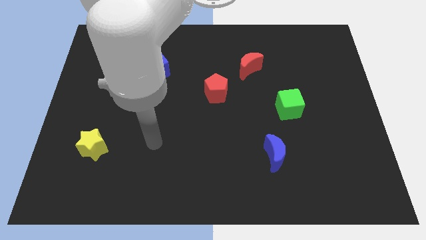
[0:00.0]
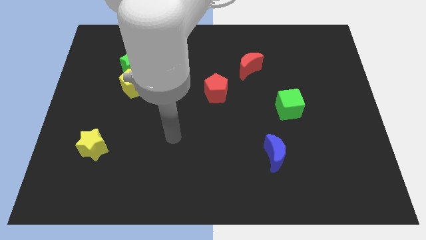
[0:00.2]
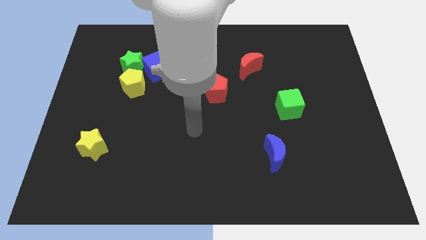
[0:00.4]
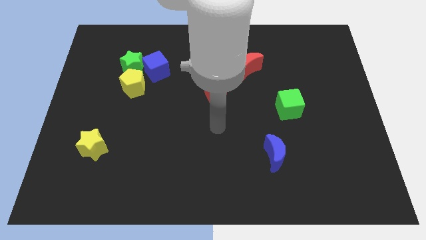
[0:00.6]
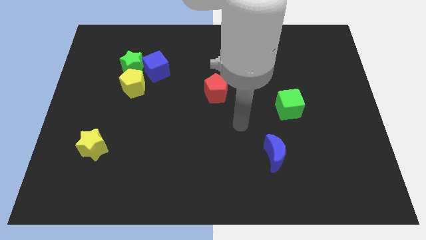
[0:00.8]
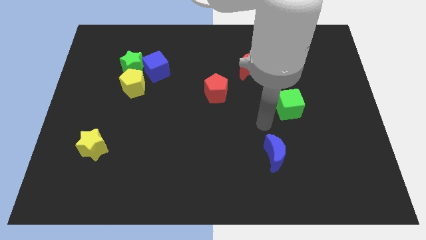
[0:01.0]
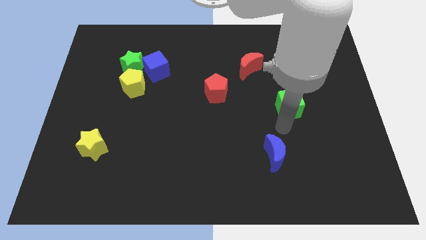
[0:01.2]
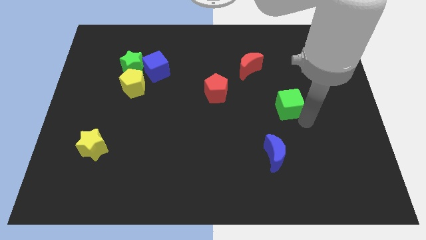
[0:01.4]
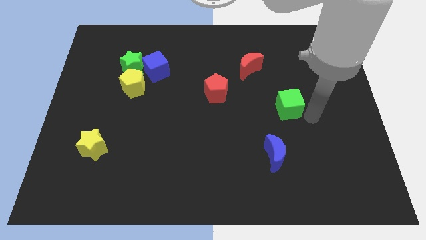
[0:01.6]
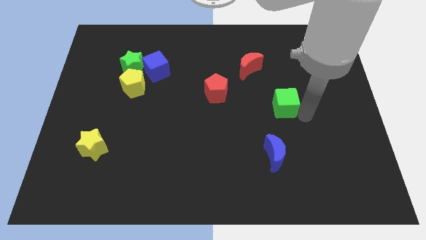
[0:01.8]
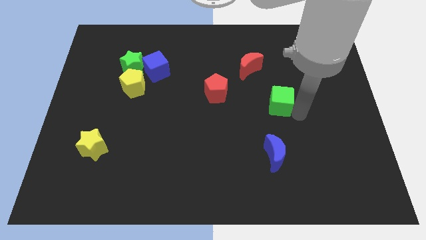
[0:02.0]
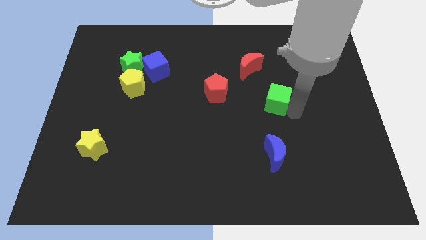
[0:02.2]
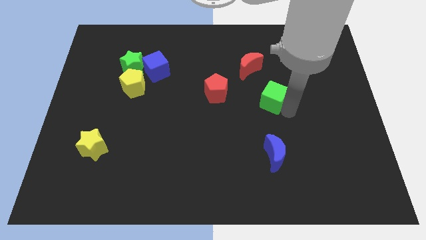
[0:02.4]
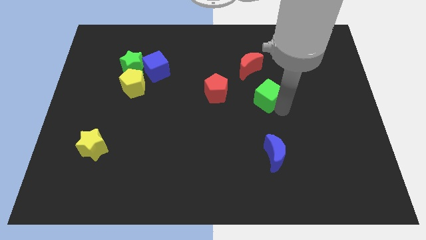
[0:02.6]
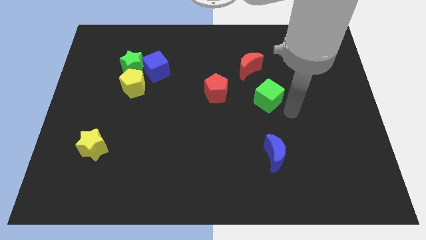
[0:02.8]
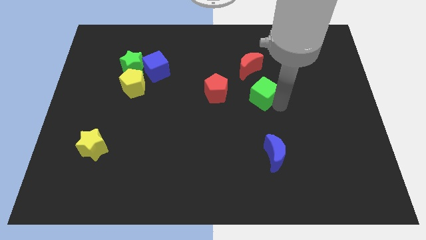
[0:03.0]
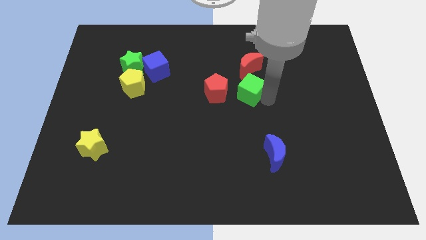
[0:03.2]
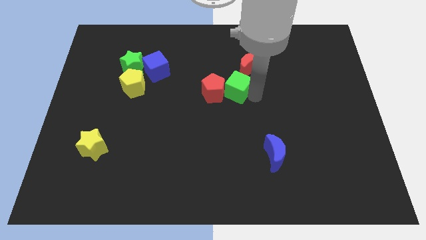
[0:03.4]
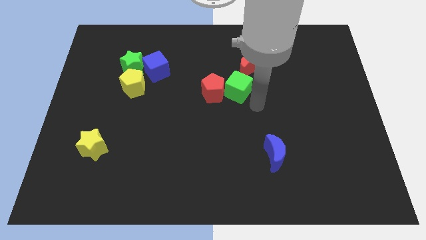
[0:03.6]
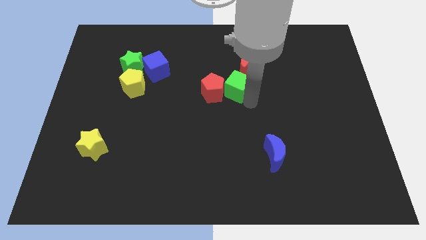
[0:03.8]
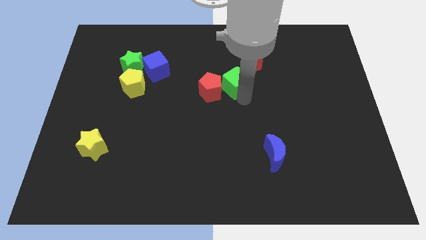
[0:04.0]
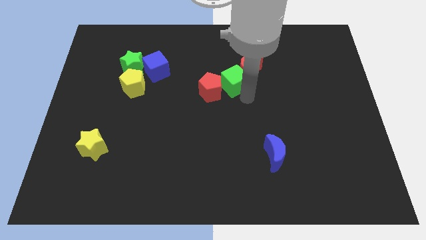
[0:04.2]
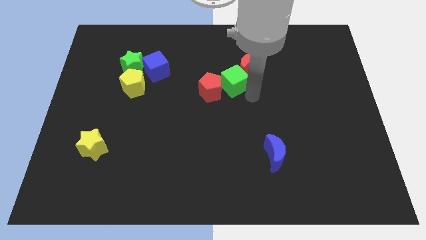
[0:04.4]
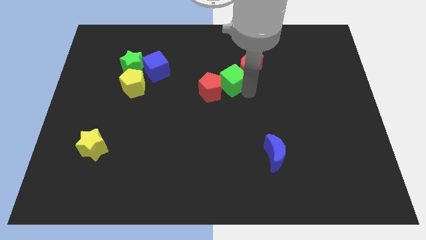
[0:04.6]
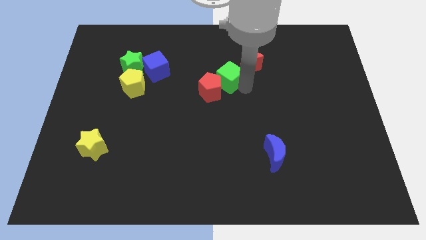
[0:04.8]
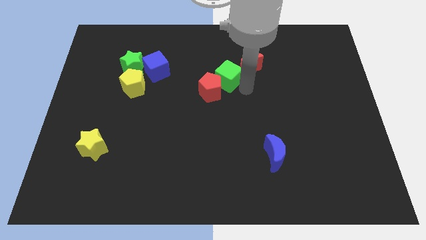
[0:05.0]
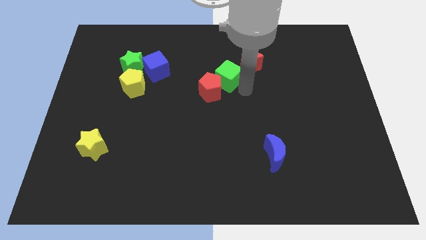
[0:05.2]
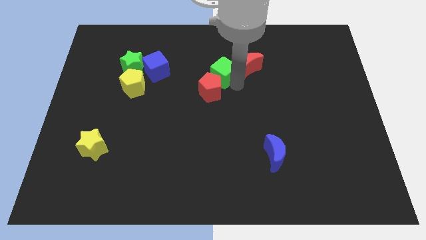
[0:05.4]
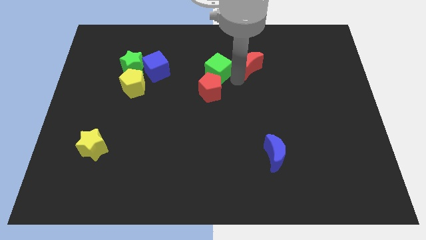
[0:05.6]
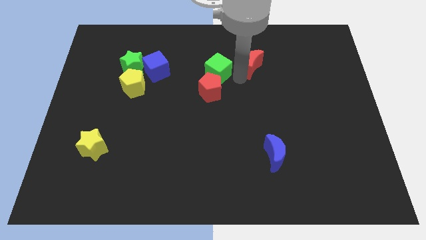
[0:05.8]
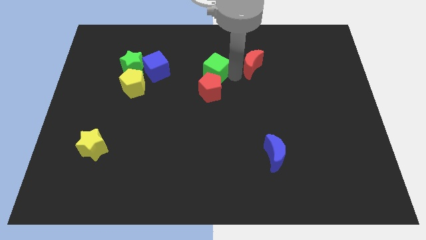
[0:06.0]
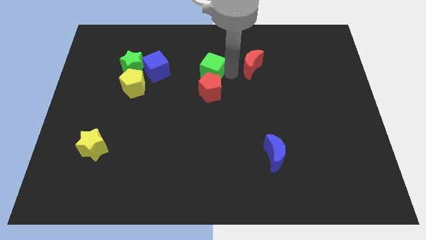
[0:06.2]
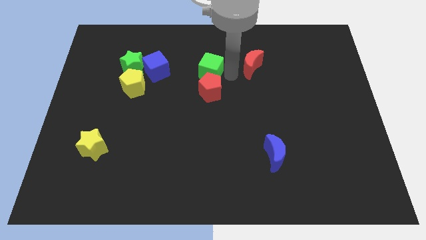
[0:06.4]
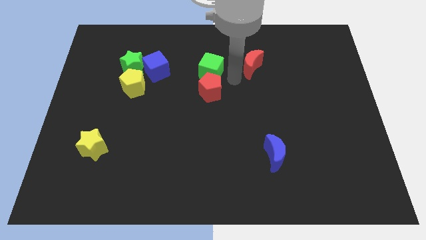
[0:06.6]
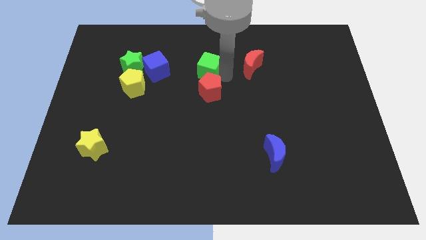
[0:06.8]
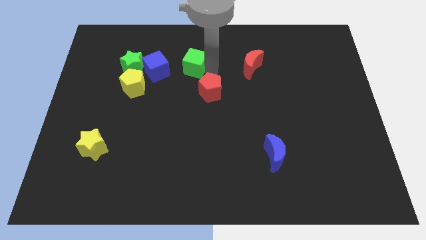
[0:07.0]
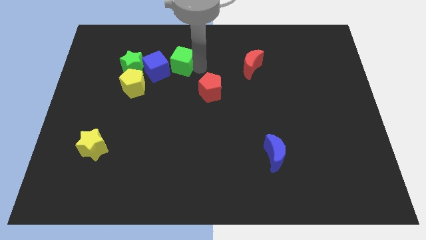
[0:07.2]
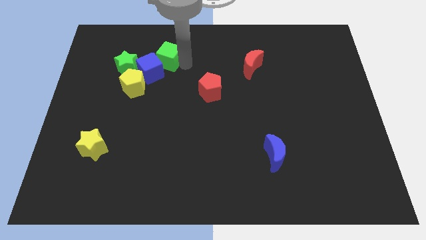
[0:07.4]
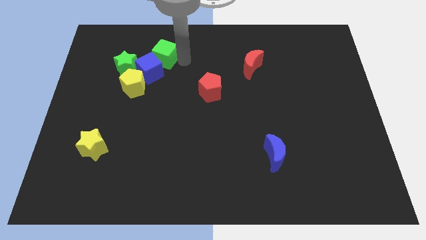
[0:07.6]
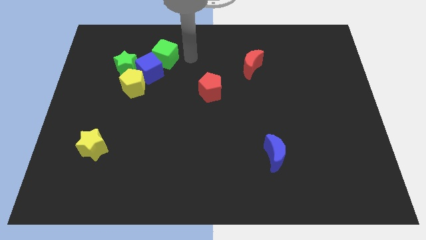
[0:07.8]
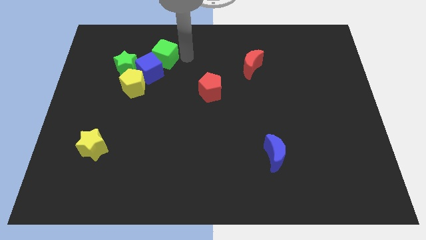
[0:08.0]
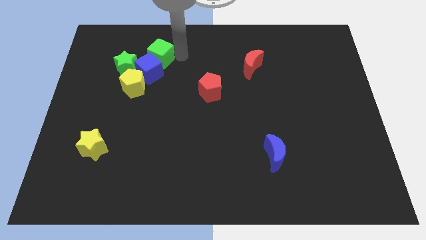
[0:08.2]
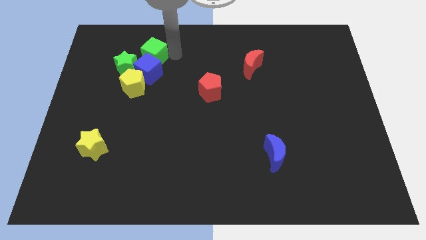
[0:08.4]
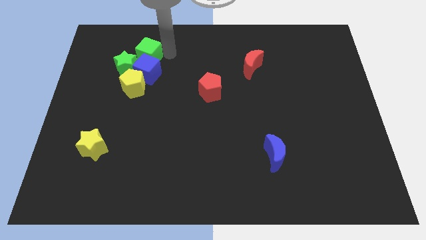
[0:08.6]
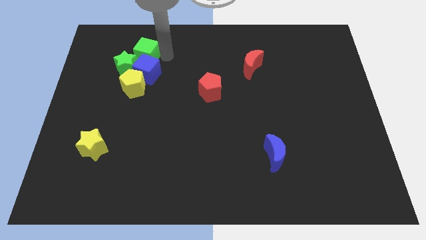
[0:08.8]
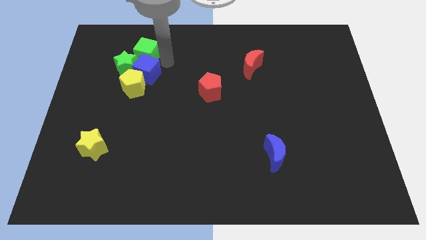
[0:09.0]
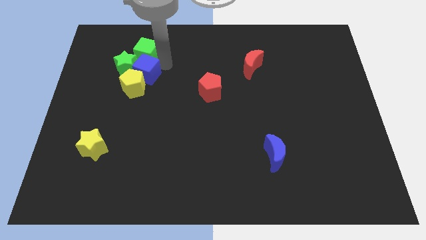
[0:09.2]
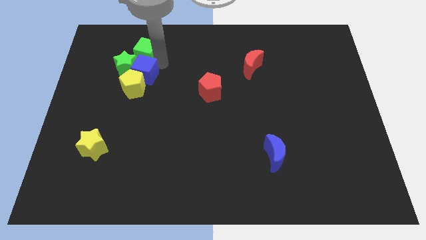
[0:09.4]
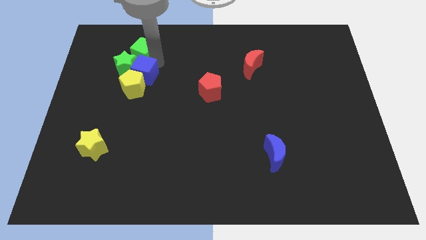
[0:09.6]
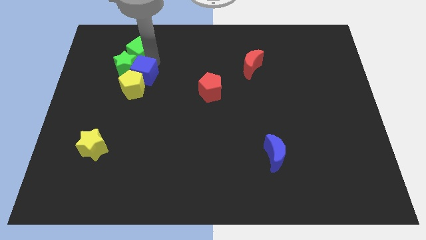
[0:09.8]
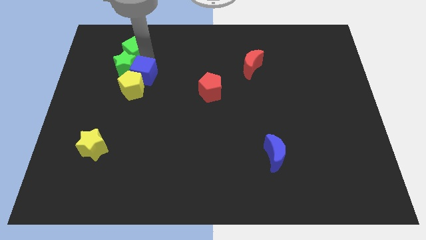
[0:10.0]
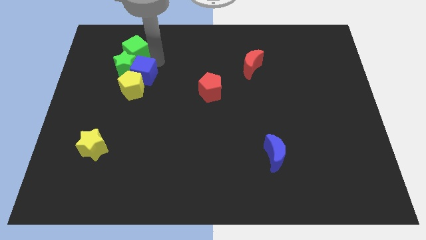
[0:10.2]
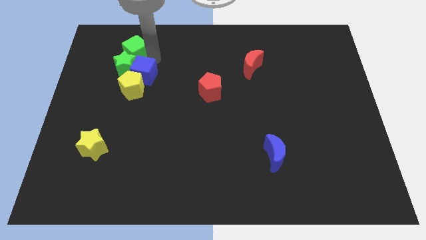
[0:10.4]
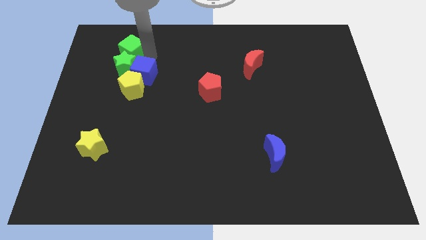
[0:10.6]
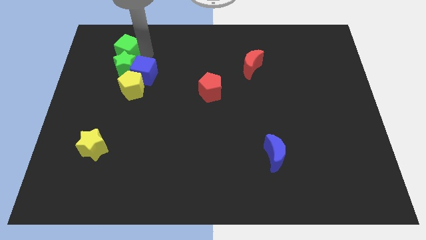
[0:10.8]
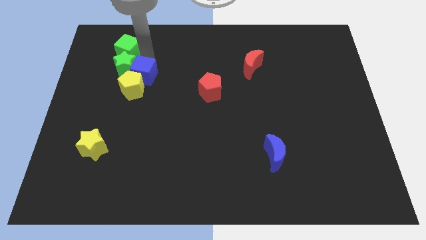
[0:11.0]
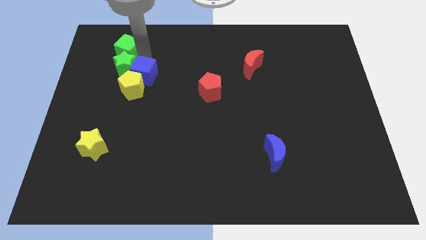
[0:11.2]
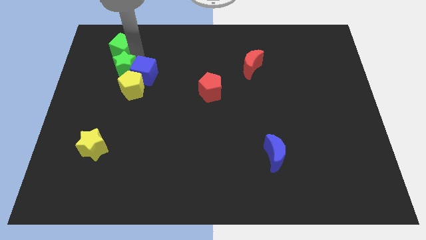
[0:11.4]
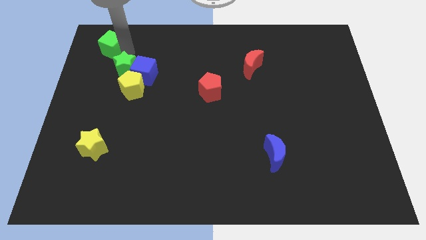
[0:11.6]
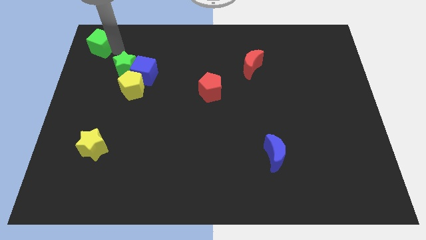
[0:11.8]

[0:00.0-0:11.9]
move the green cube to the top left corner
